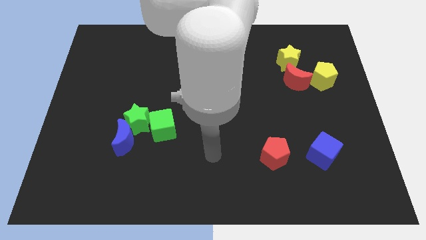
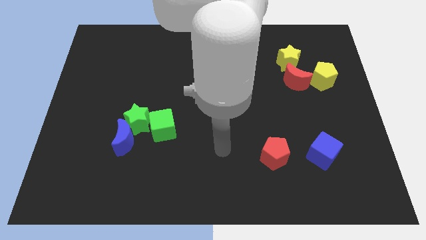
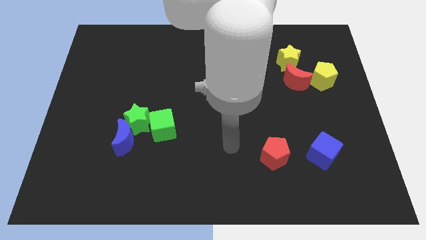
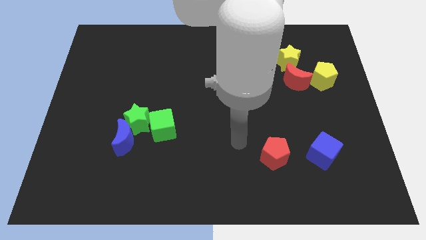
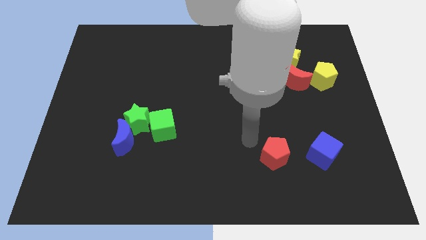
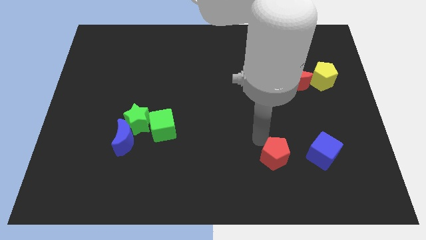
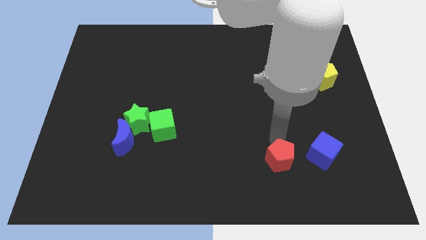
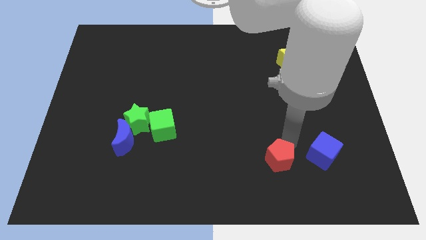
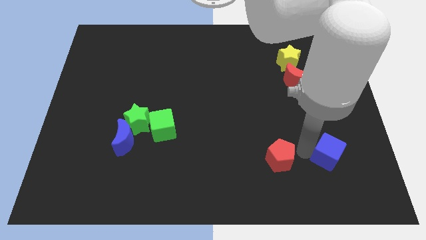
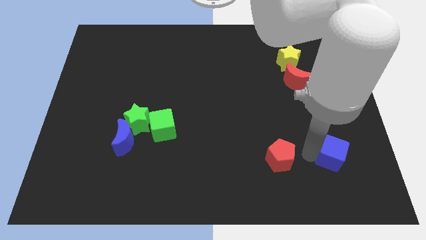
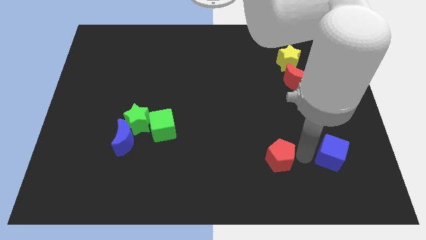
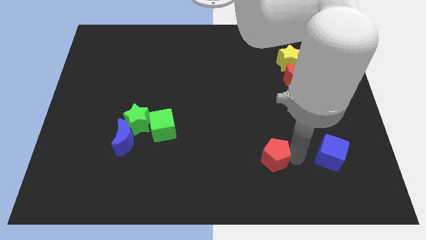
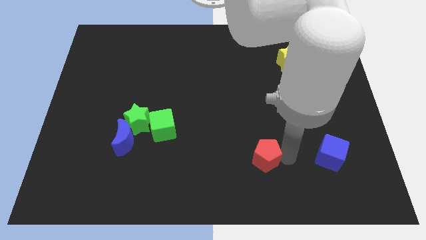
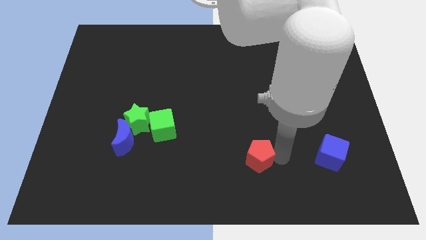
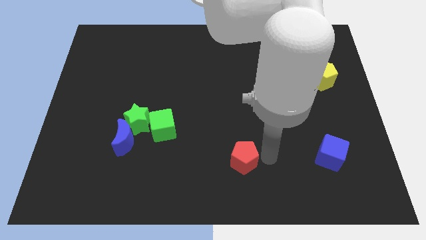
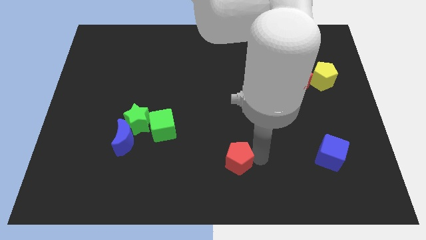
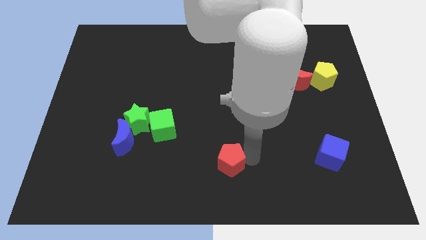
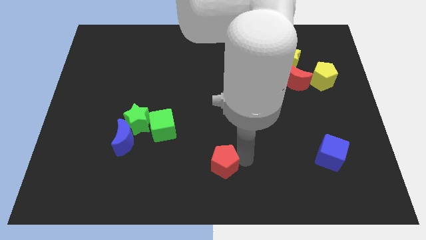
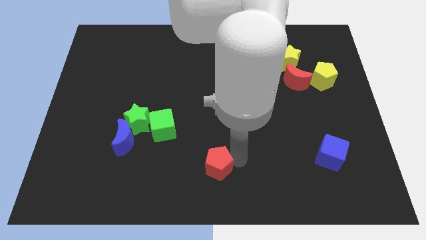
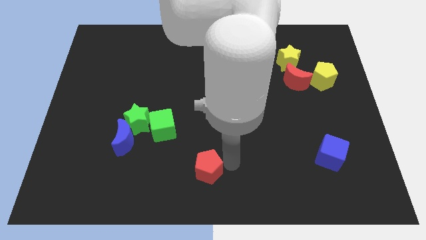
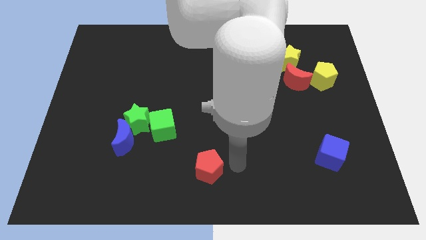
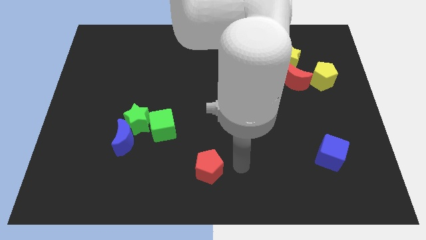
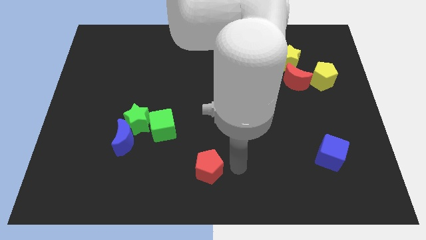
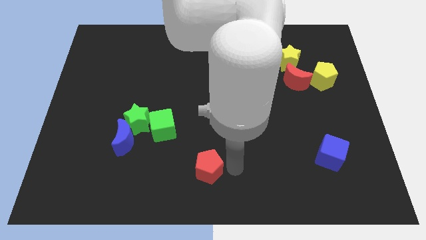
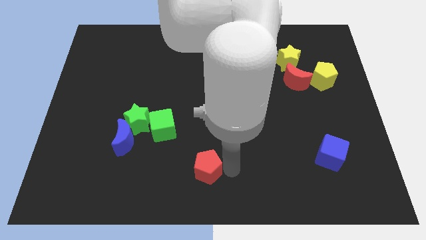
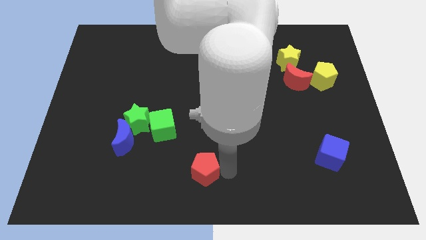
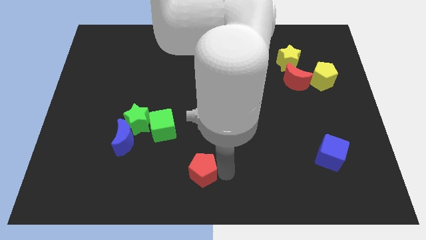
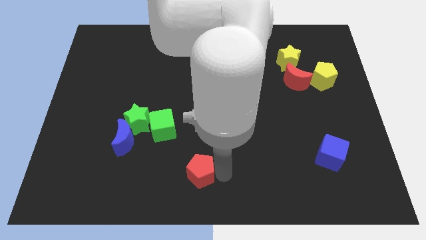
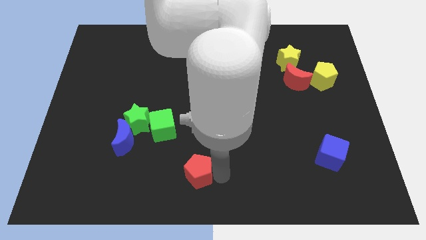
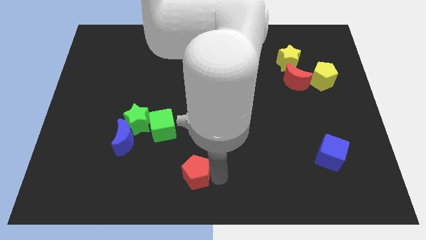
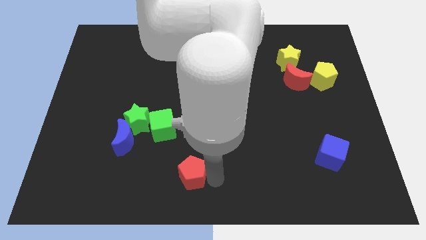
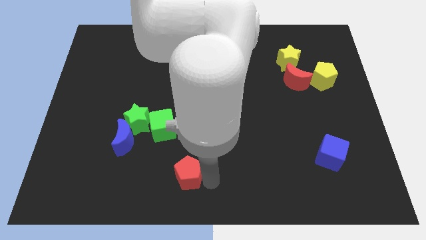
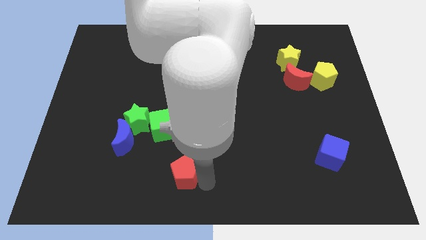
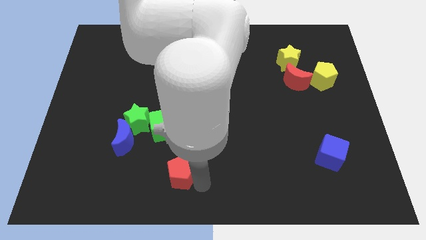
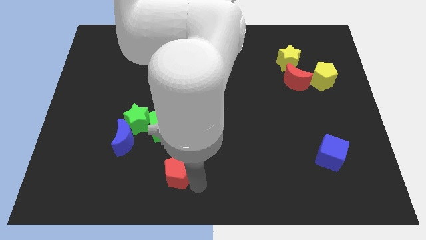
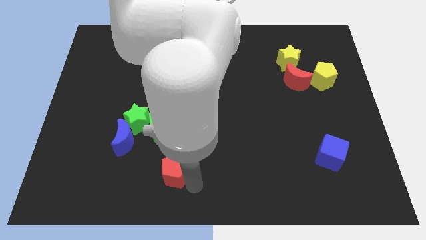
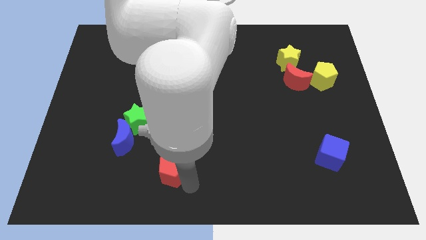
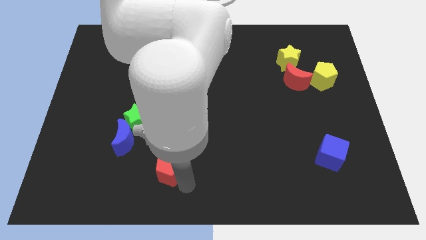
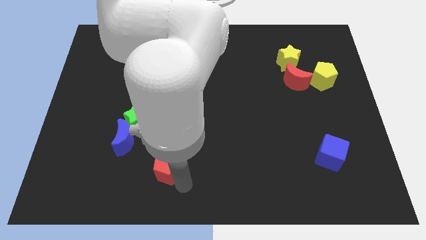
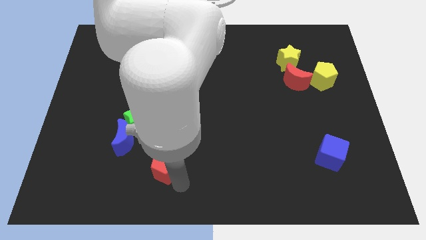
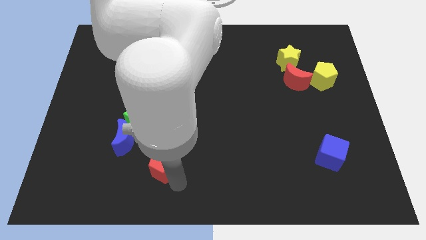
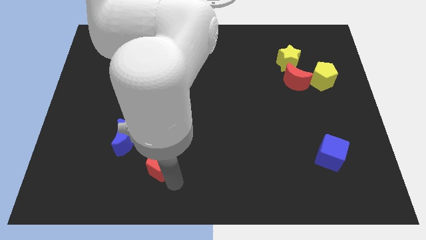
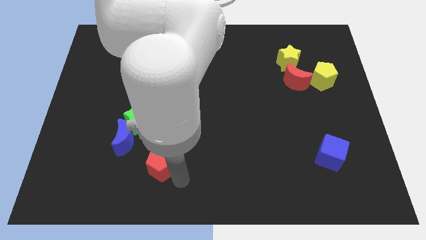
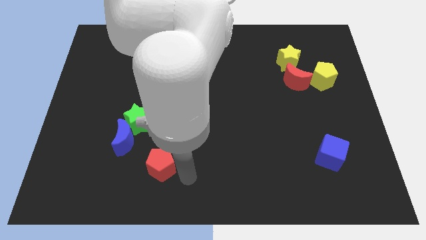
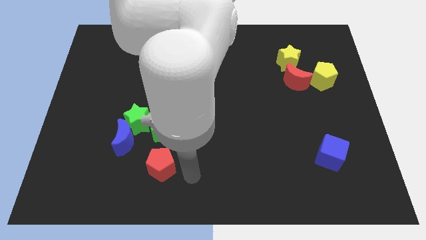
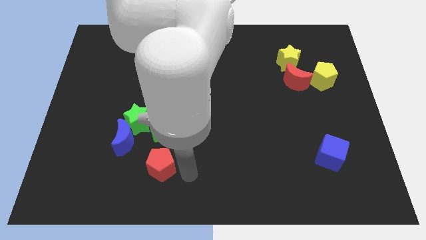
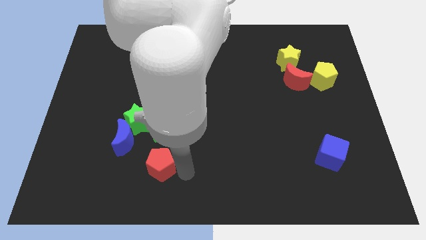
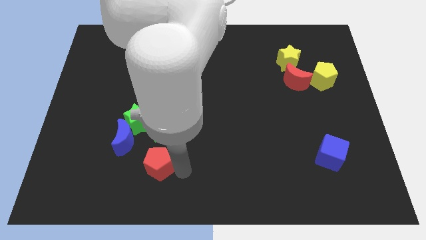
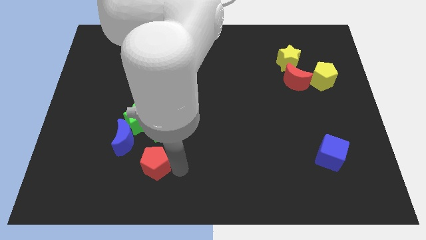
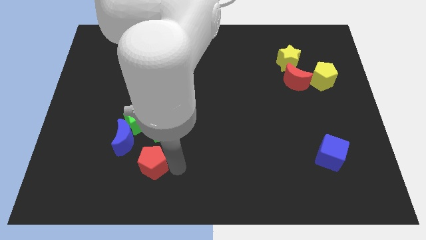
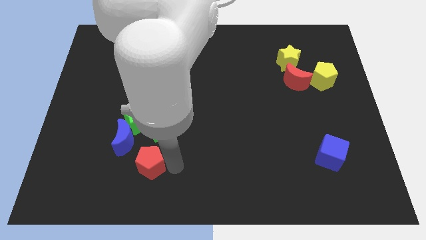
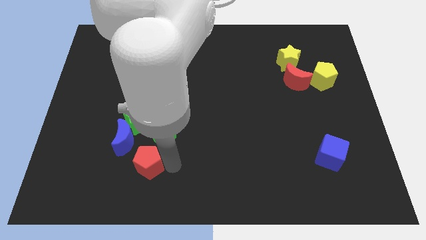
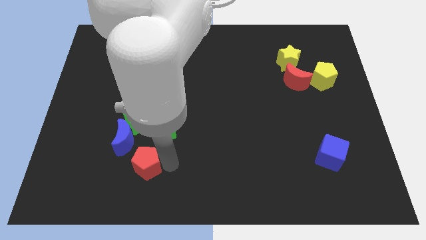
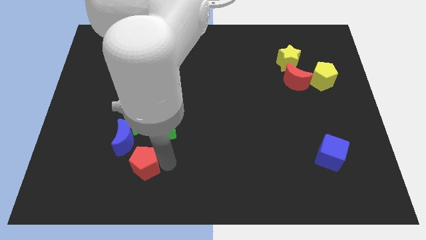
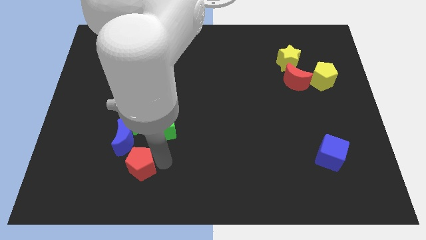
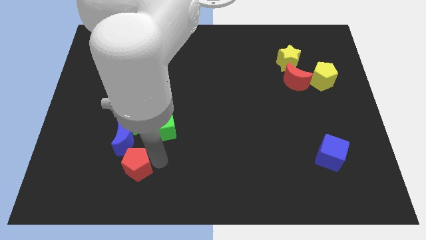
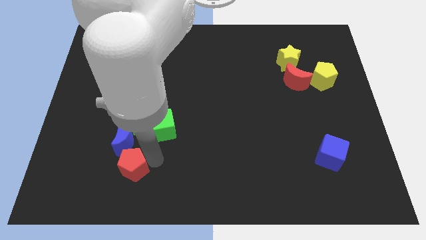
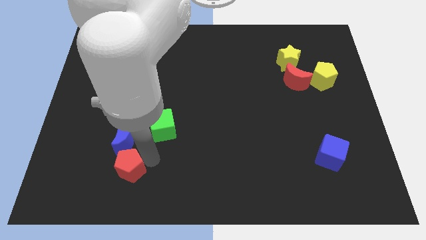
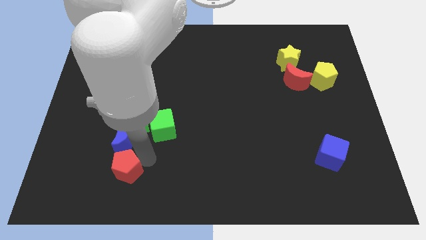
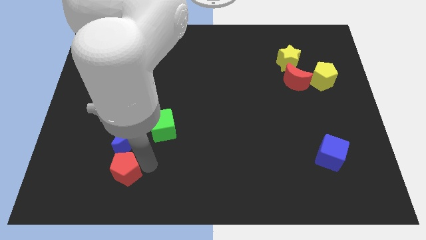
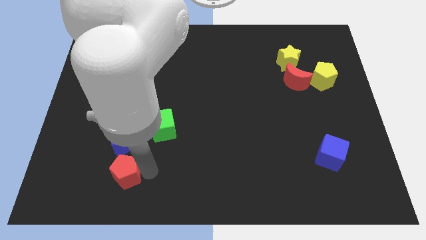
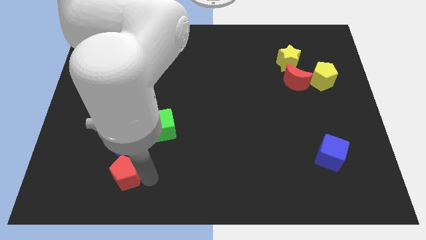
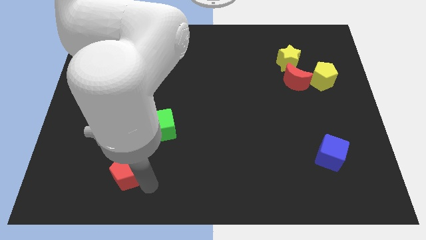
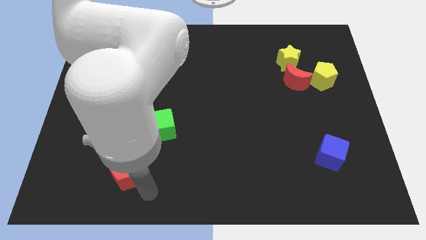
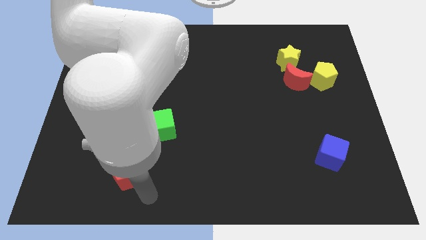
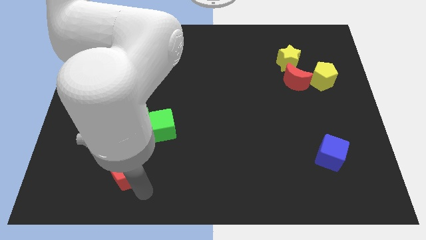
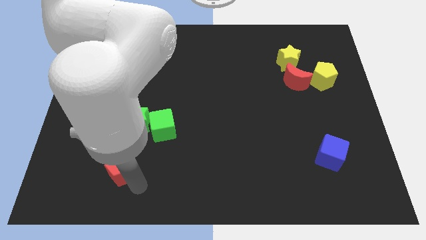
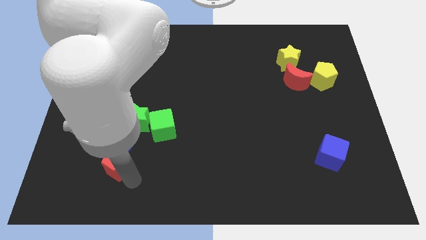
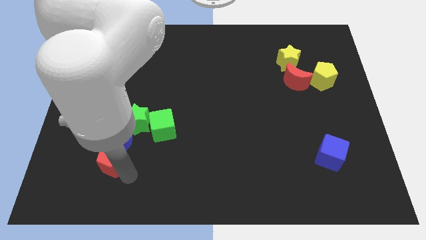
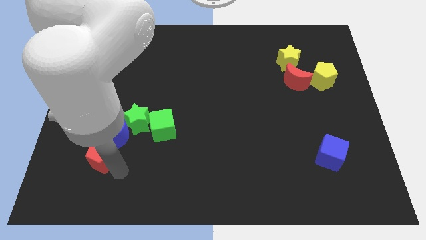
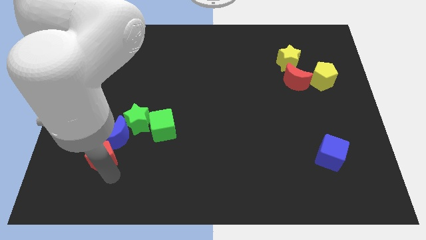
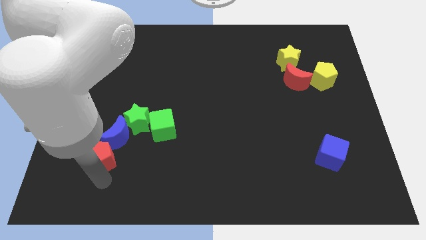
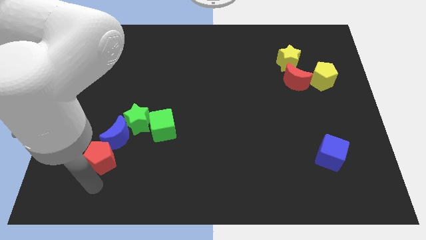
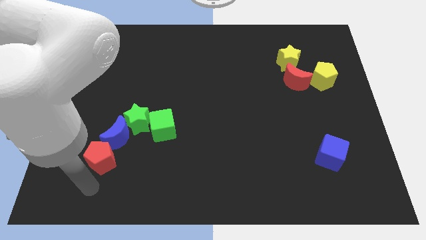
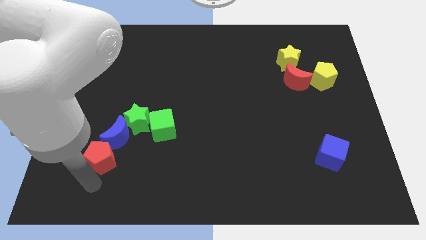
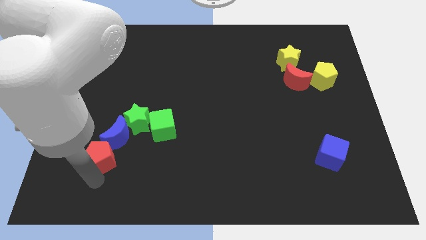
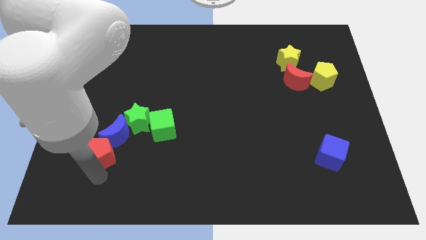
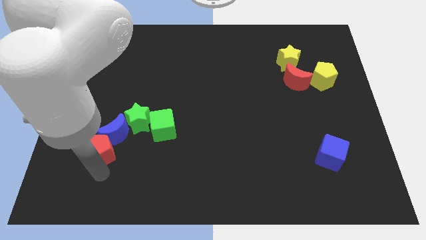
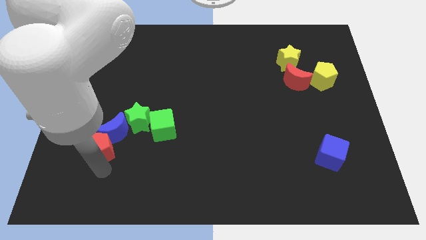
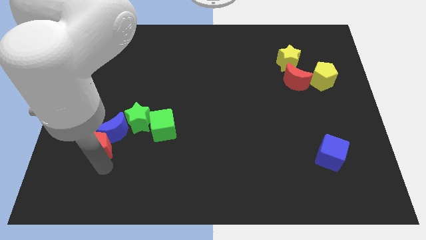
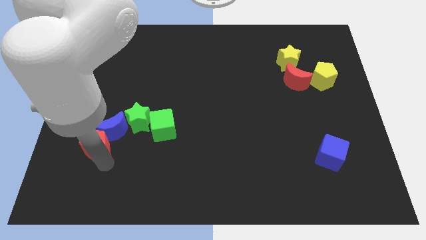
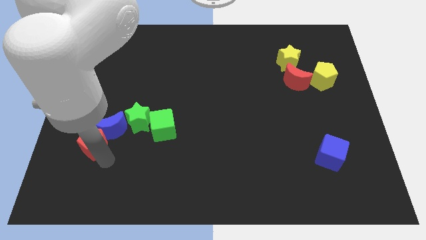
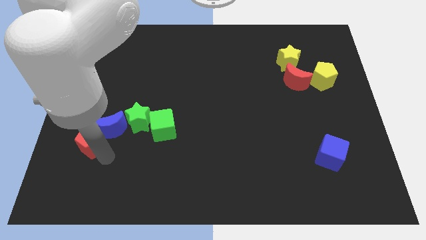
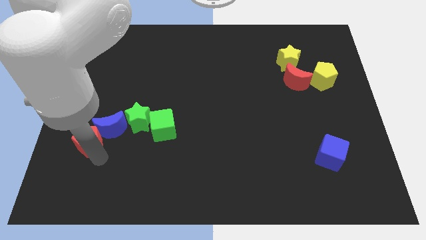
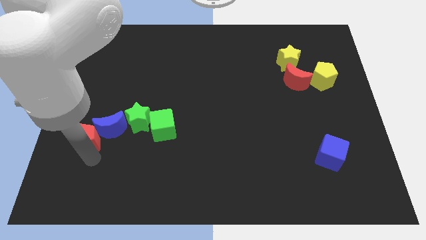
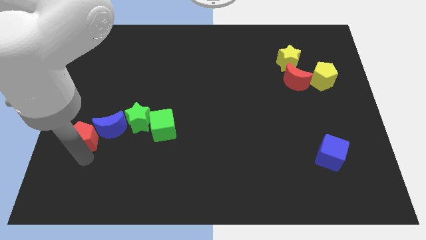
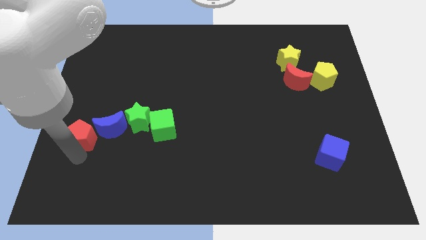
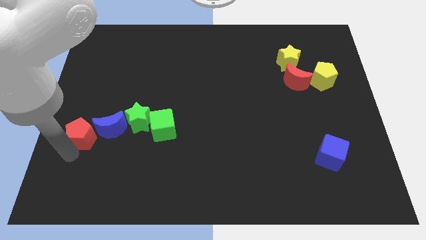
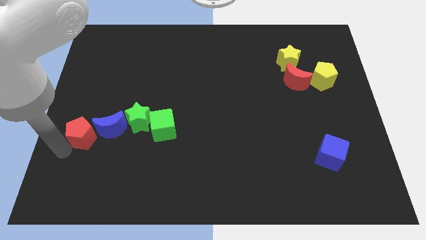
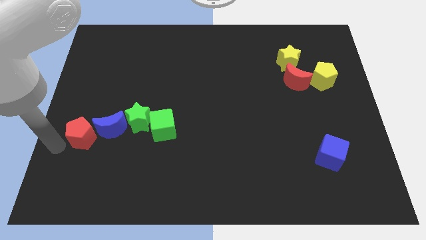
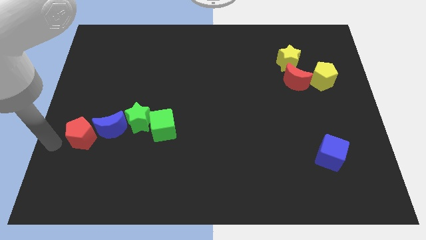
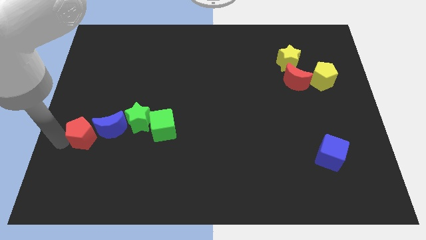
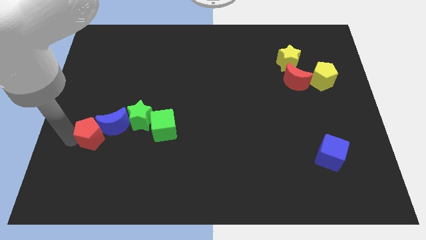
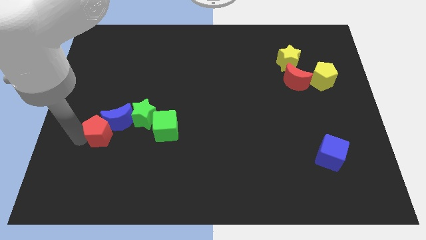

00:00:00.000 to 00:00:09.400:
move the red pentagon to the left of the green cube
